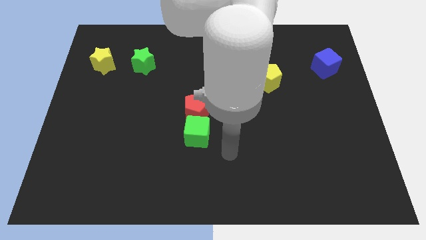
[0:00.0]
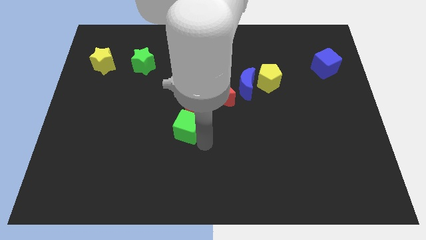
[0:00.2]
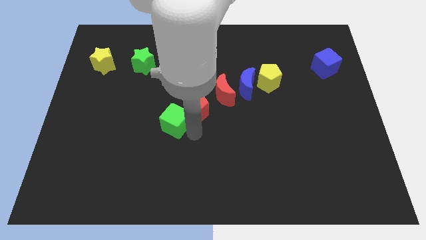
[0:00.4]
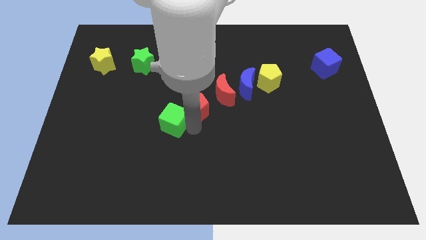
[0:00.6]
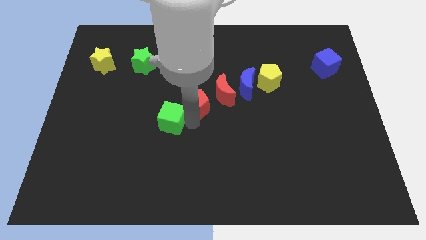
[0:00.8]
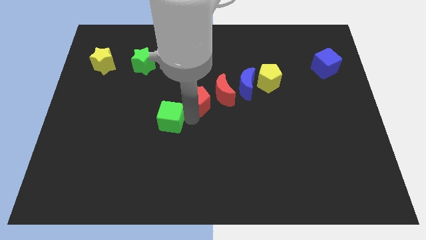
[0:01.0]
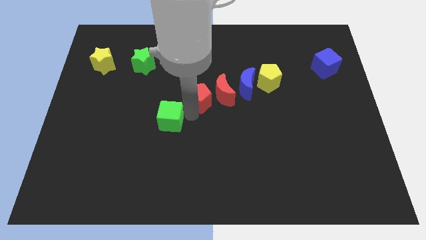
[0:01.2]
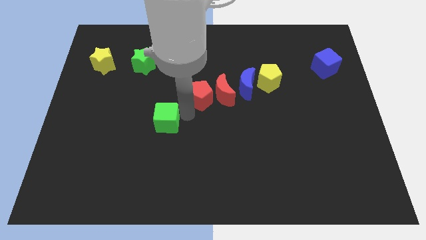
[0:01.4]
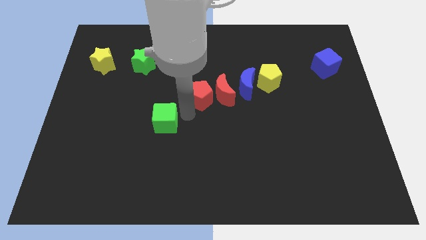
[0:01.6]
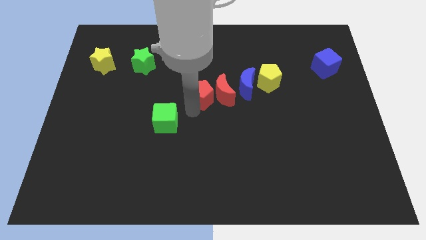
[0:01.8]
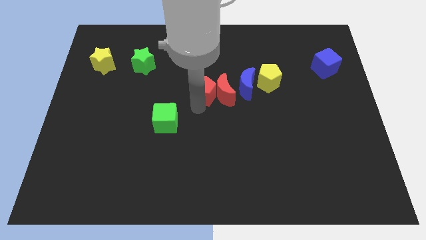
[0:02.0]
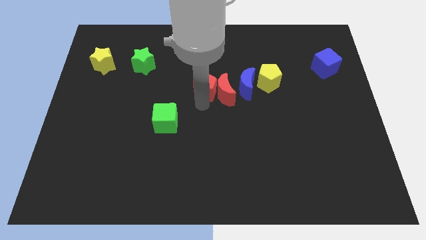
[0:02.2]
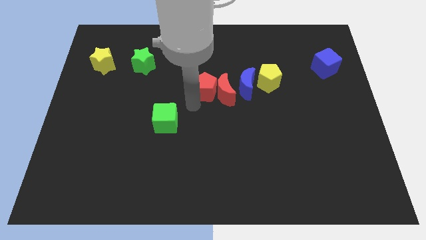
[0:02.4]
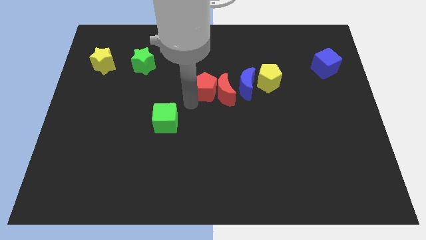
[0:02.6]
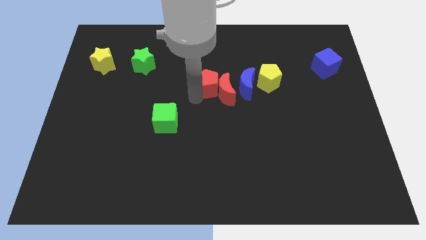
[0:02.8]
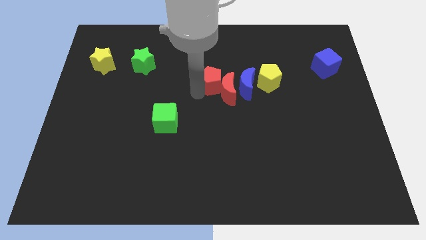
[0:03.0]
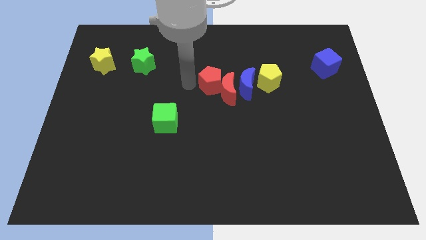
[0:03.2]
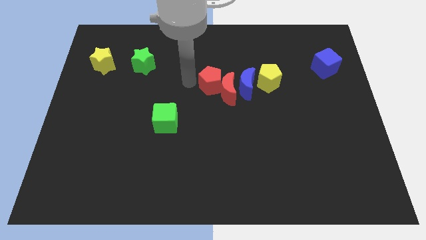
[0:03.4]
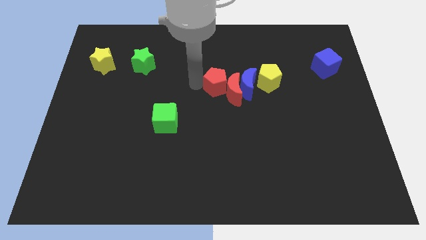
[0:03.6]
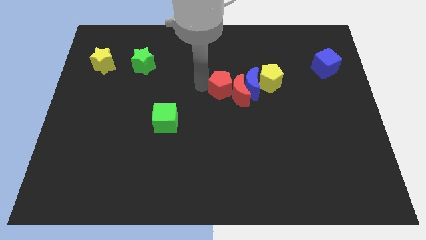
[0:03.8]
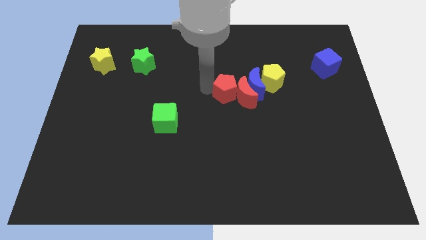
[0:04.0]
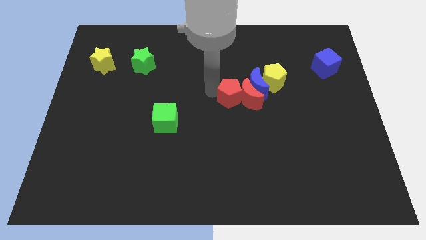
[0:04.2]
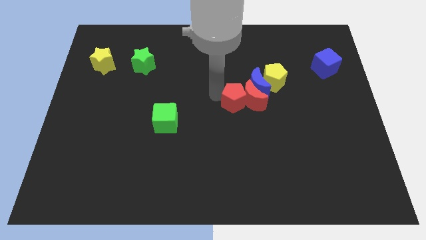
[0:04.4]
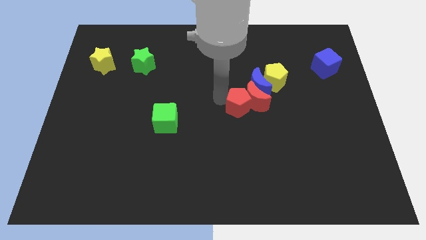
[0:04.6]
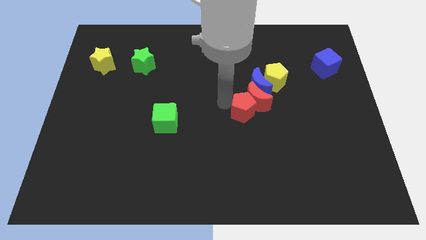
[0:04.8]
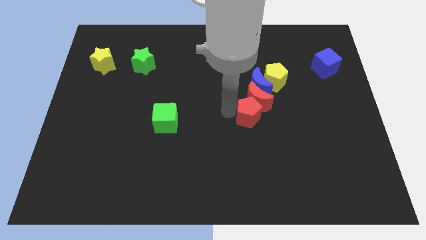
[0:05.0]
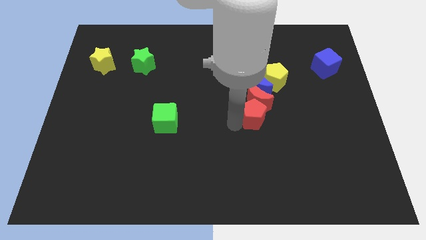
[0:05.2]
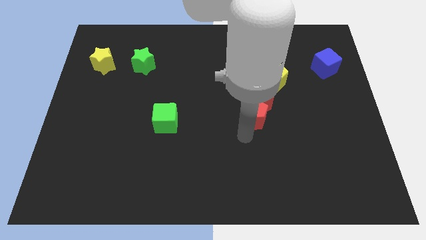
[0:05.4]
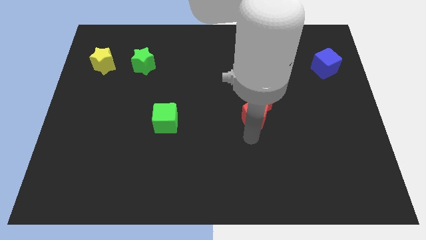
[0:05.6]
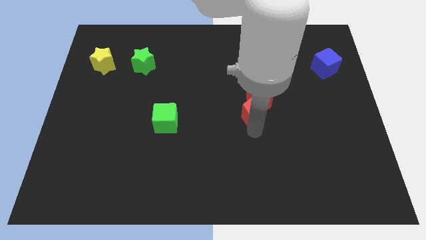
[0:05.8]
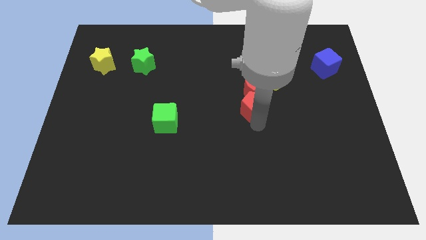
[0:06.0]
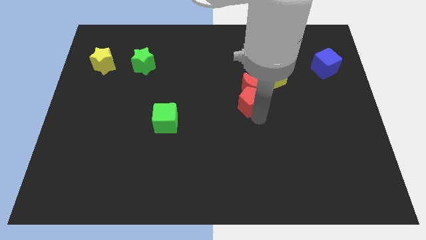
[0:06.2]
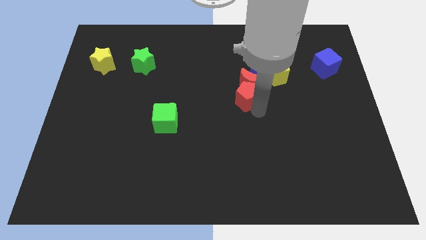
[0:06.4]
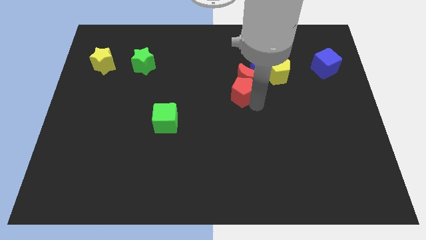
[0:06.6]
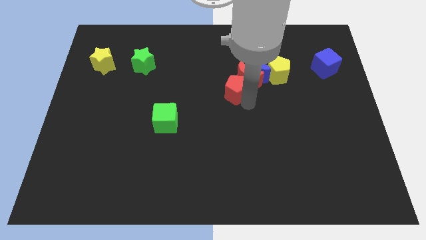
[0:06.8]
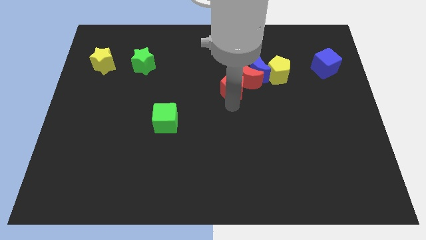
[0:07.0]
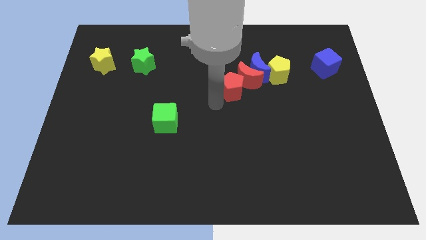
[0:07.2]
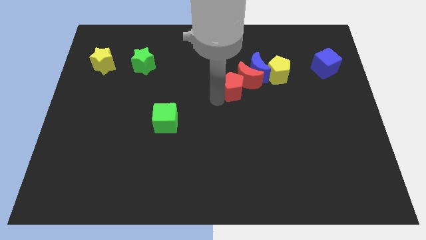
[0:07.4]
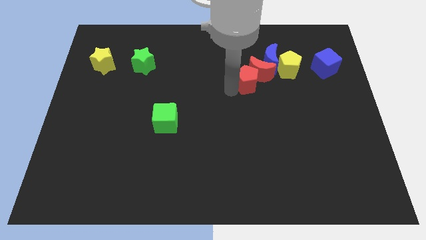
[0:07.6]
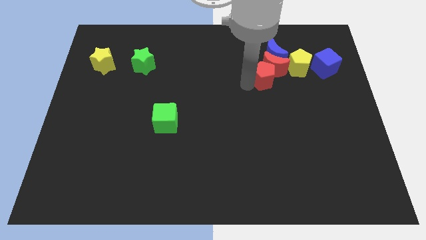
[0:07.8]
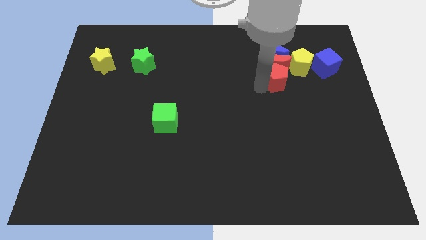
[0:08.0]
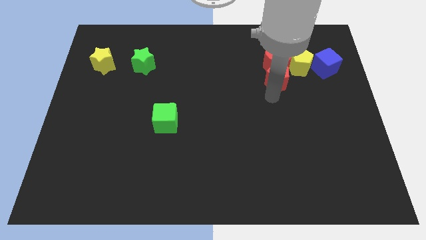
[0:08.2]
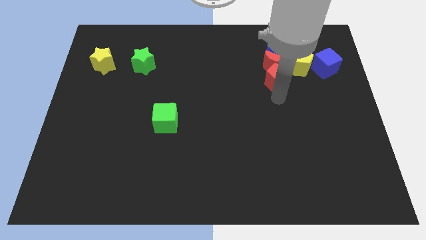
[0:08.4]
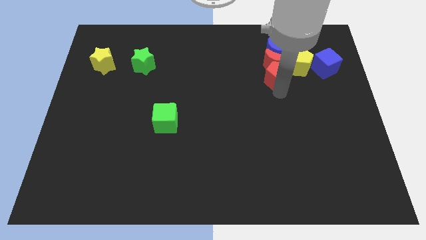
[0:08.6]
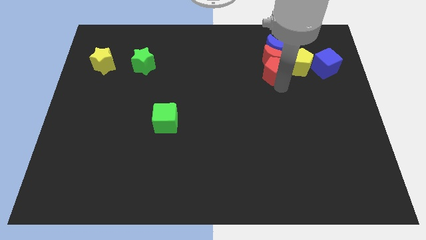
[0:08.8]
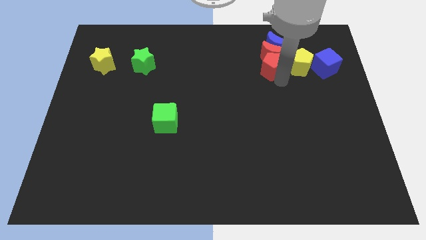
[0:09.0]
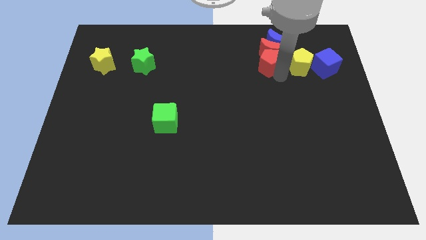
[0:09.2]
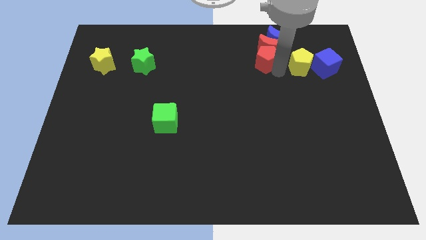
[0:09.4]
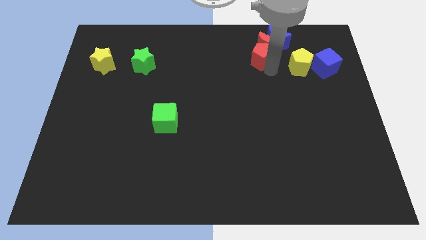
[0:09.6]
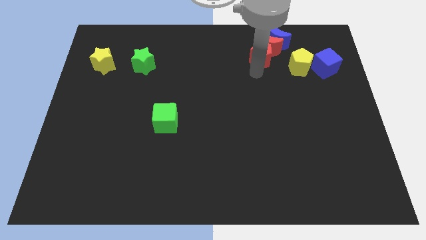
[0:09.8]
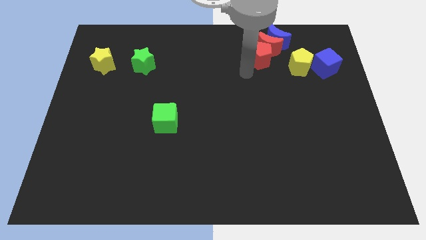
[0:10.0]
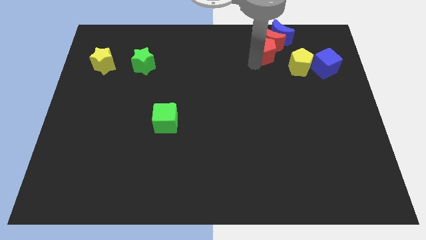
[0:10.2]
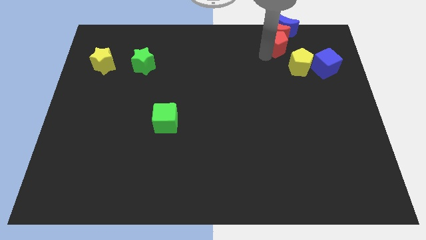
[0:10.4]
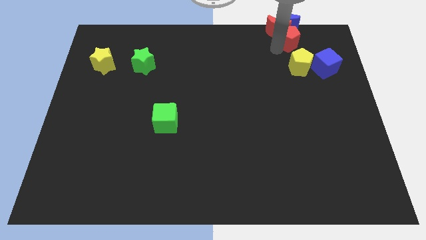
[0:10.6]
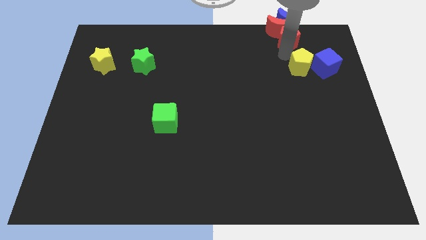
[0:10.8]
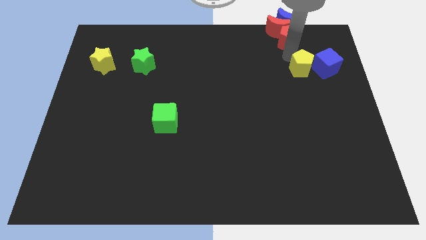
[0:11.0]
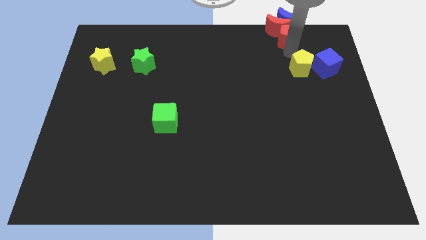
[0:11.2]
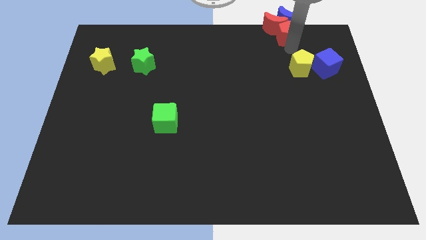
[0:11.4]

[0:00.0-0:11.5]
push the red pentagon towards the blue moon

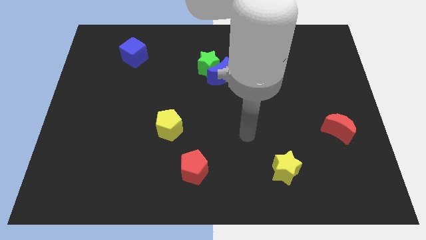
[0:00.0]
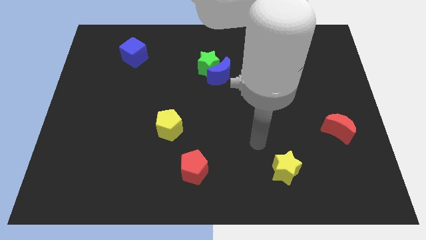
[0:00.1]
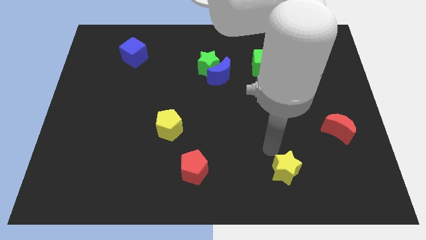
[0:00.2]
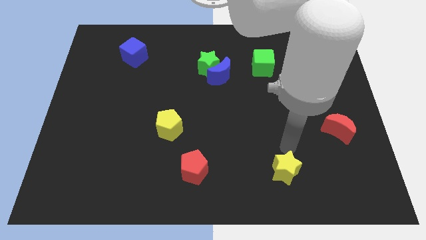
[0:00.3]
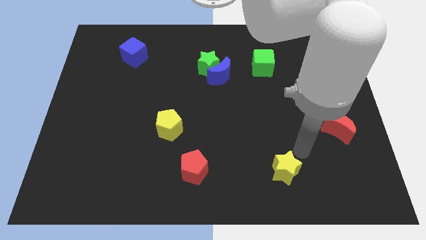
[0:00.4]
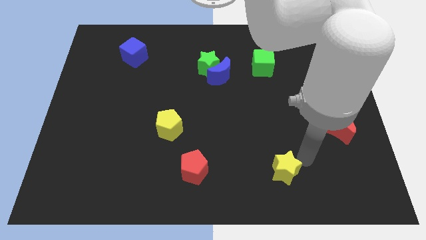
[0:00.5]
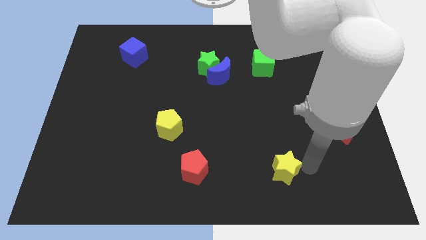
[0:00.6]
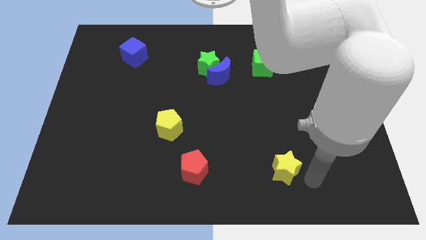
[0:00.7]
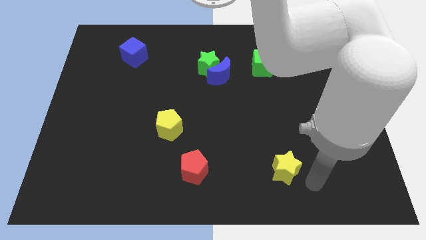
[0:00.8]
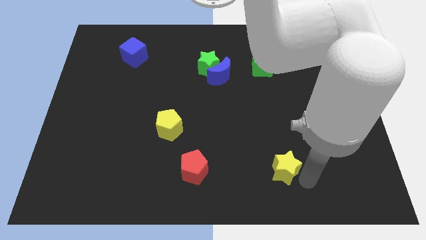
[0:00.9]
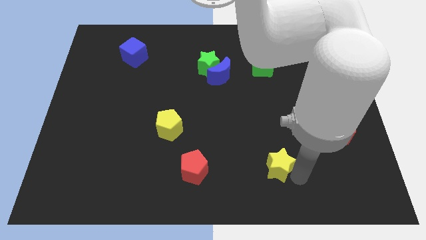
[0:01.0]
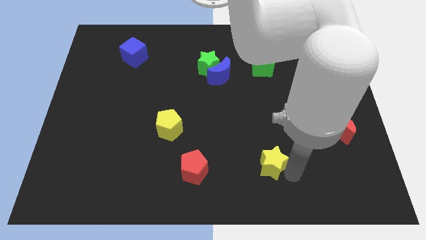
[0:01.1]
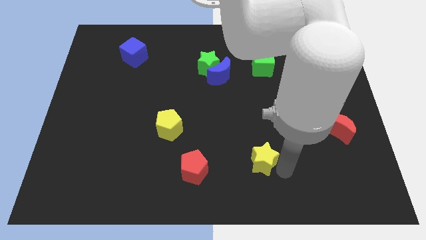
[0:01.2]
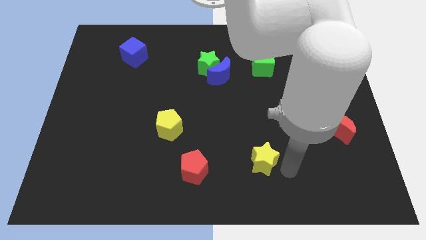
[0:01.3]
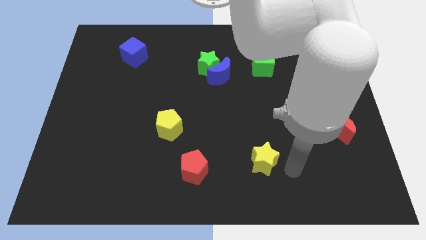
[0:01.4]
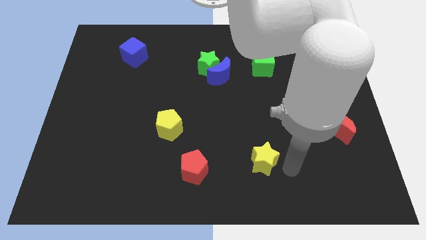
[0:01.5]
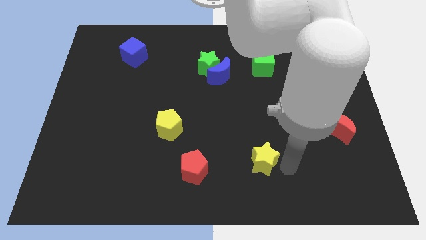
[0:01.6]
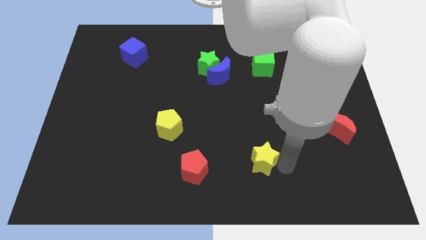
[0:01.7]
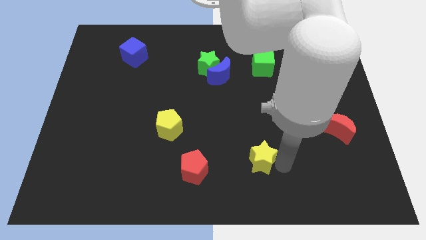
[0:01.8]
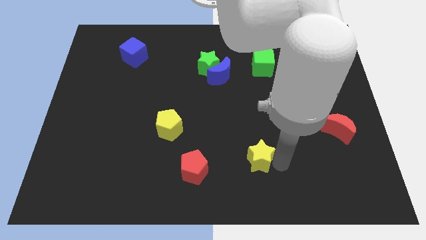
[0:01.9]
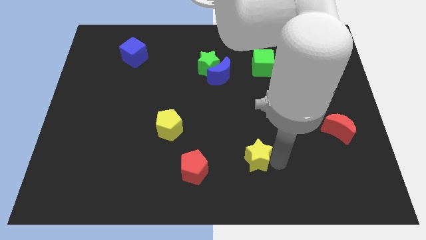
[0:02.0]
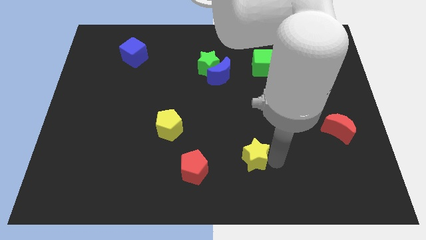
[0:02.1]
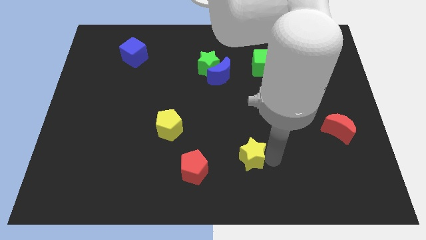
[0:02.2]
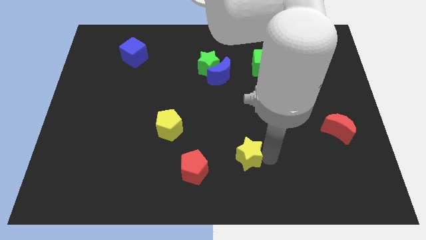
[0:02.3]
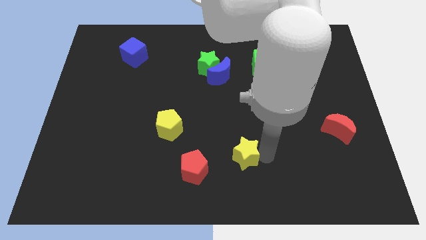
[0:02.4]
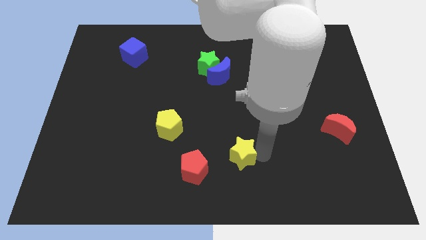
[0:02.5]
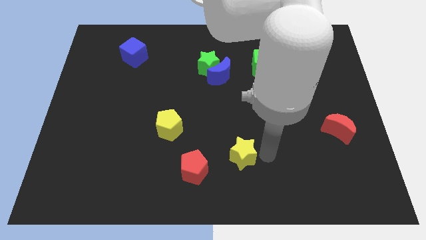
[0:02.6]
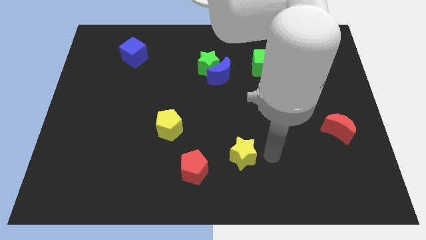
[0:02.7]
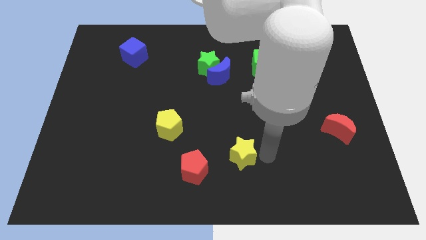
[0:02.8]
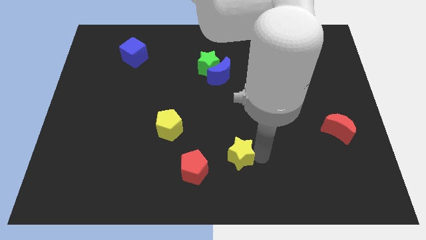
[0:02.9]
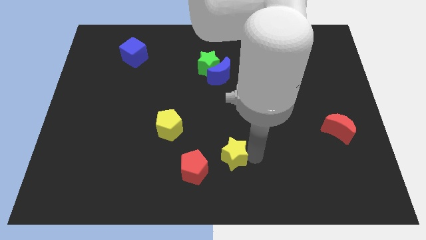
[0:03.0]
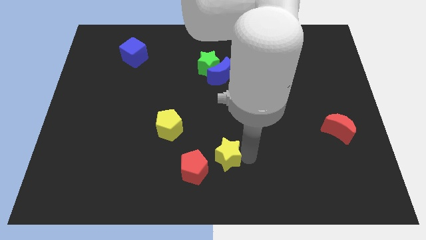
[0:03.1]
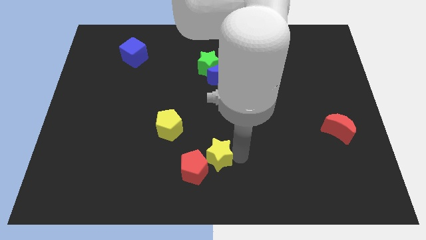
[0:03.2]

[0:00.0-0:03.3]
put the yellow star to the red pentagon
